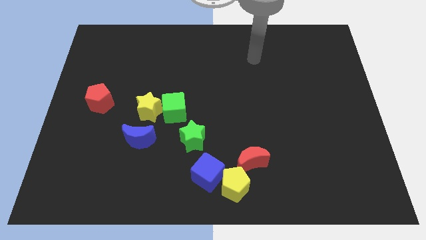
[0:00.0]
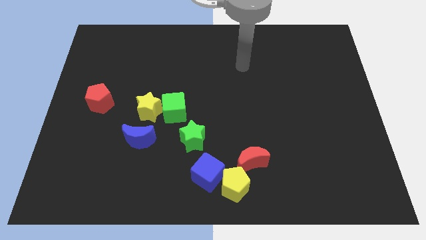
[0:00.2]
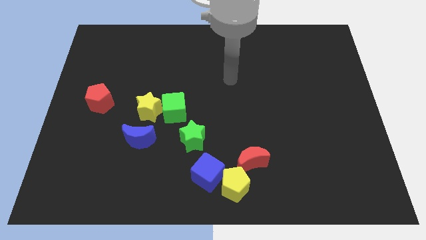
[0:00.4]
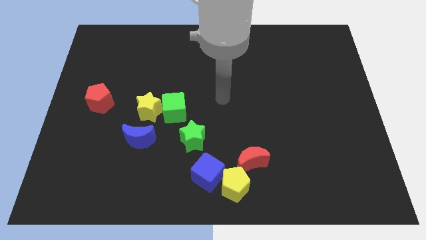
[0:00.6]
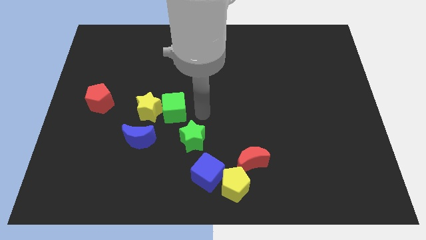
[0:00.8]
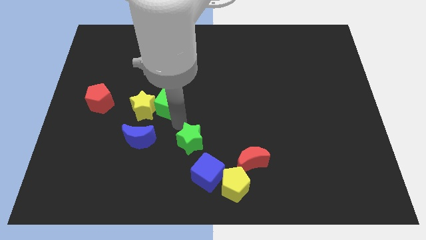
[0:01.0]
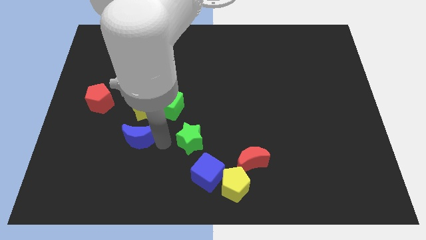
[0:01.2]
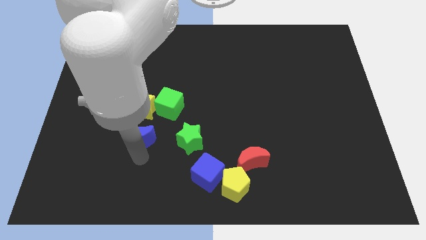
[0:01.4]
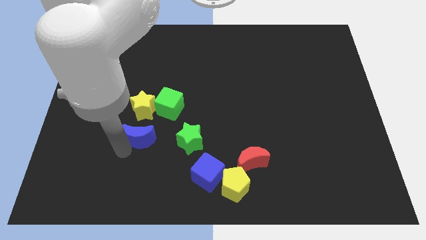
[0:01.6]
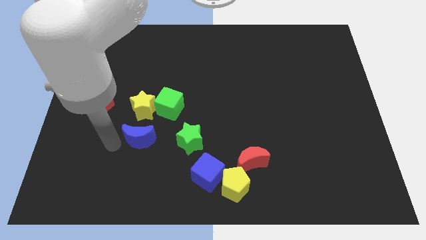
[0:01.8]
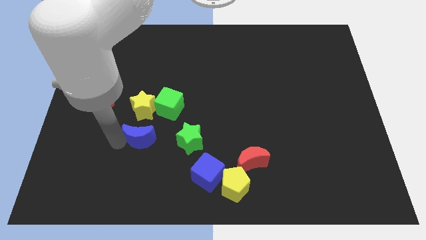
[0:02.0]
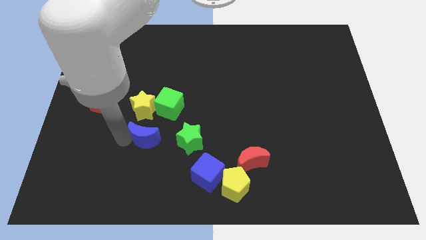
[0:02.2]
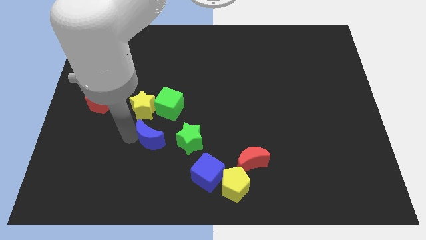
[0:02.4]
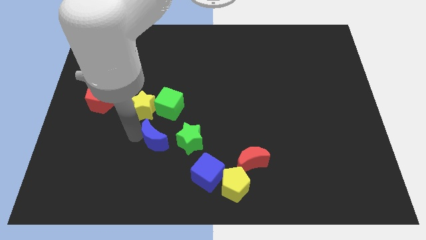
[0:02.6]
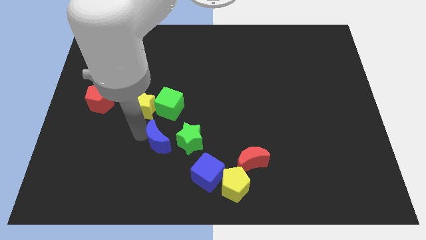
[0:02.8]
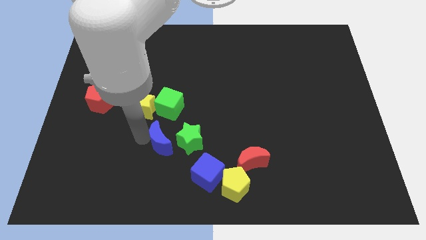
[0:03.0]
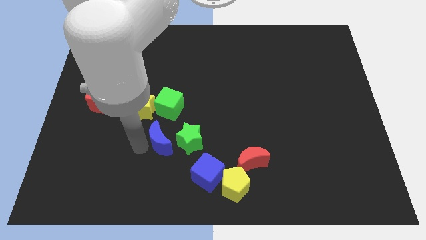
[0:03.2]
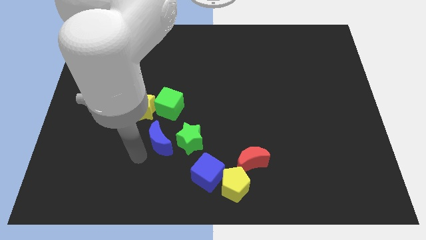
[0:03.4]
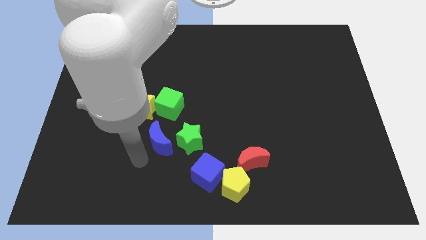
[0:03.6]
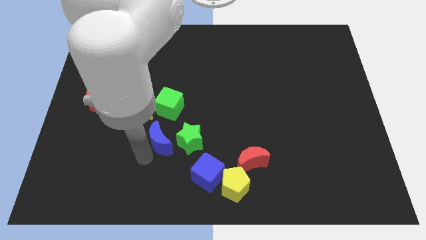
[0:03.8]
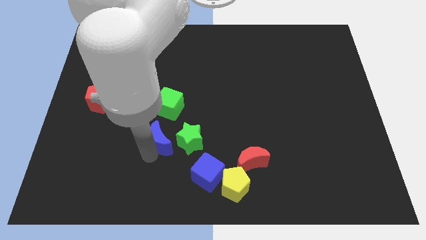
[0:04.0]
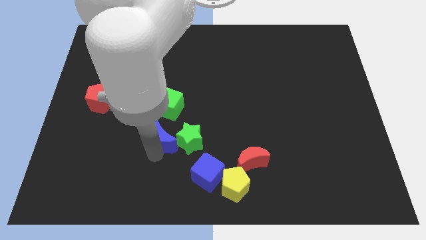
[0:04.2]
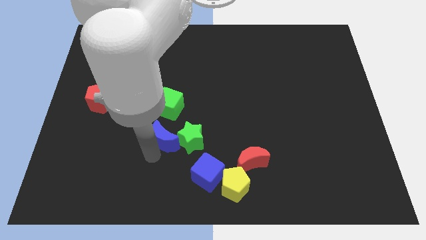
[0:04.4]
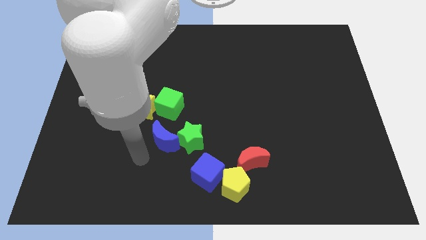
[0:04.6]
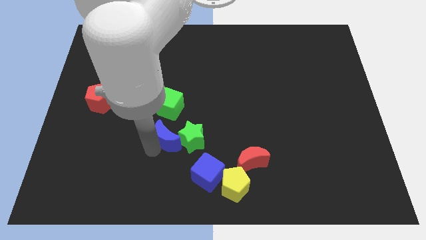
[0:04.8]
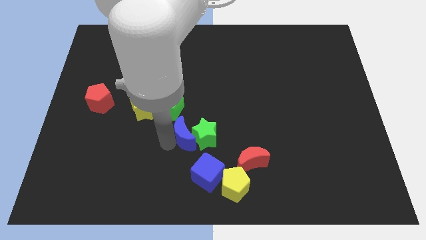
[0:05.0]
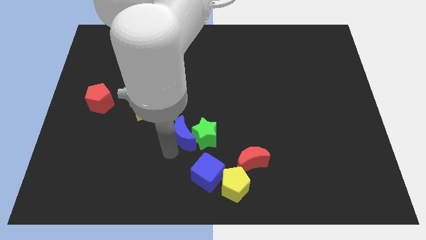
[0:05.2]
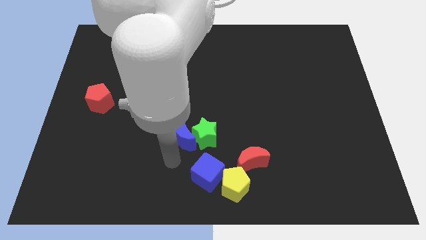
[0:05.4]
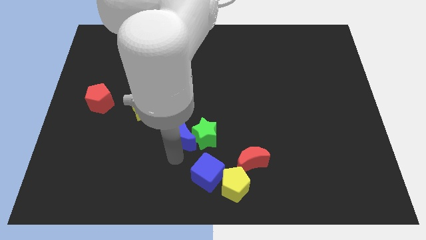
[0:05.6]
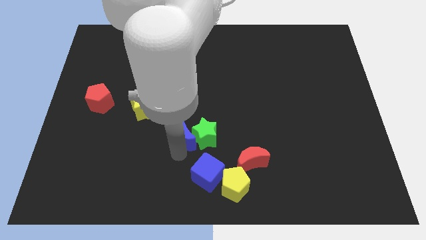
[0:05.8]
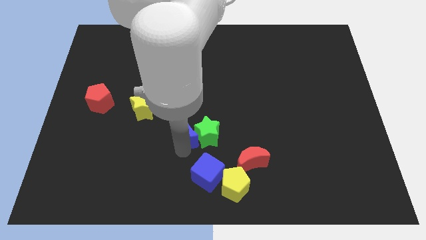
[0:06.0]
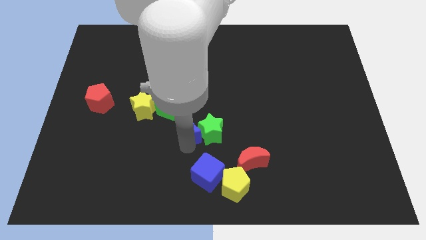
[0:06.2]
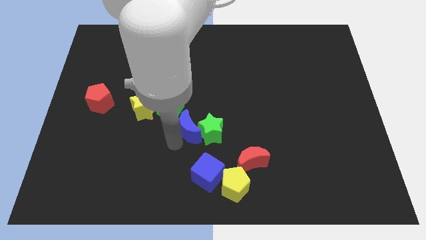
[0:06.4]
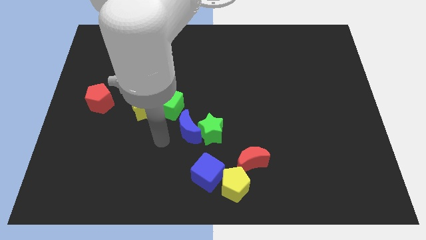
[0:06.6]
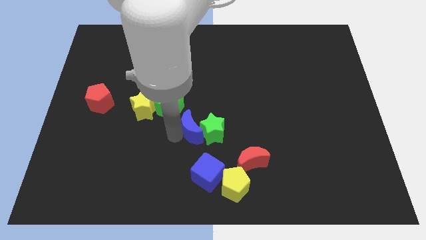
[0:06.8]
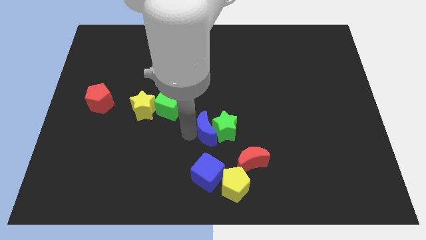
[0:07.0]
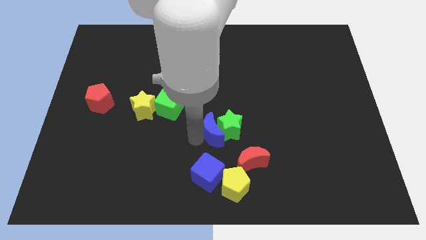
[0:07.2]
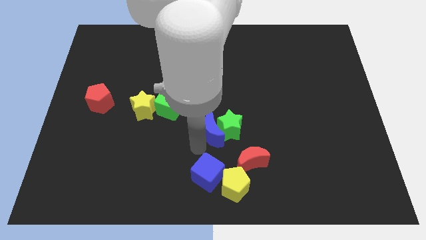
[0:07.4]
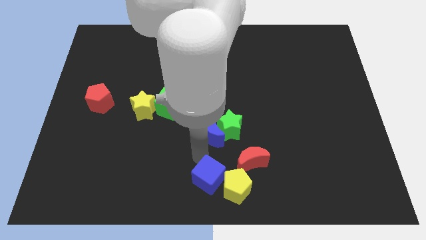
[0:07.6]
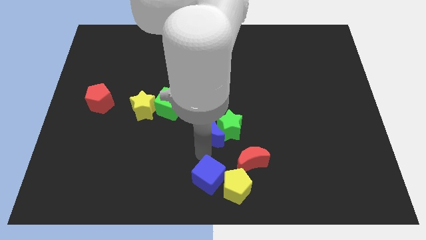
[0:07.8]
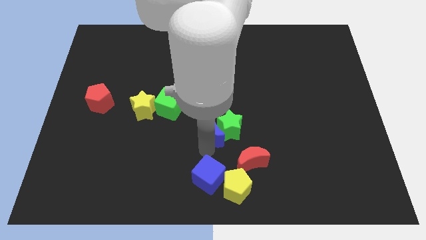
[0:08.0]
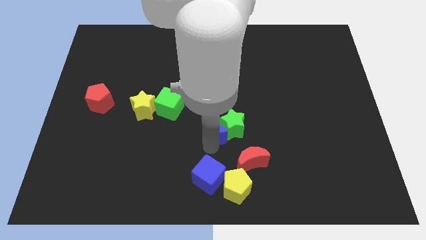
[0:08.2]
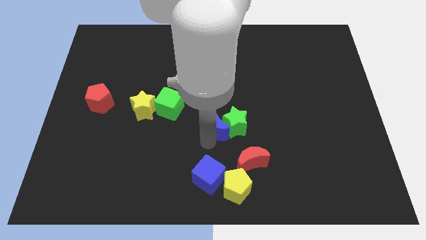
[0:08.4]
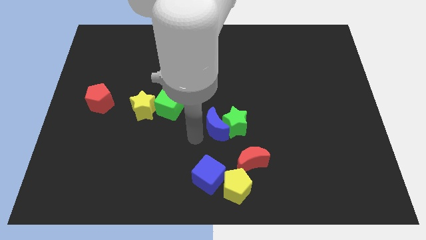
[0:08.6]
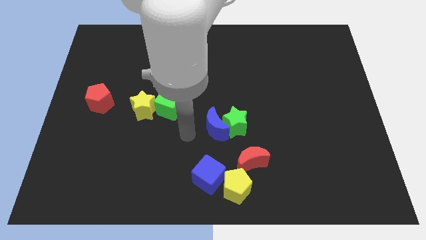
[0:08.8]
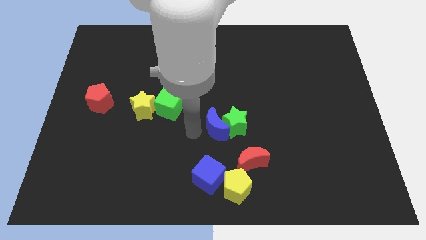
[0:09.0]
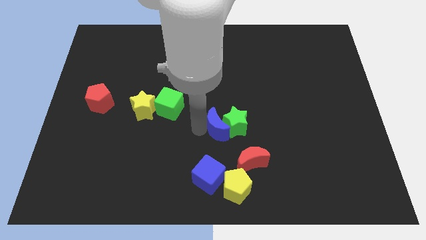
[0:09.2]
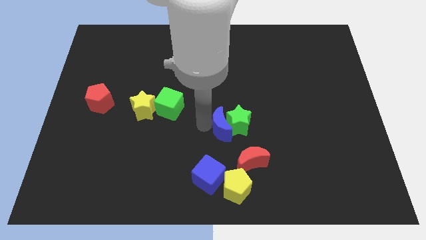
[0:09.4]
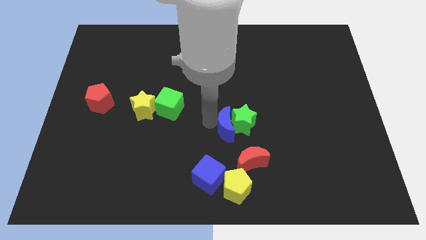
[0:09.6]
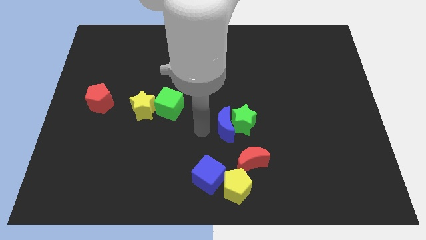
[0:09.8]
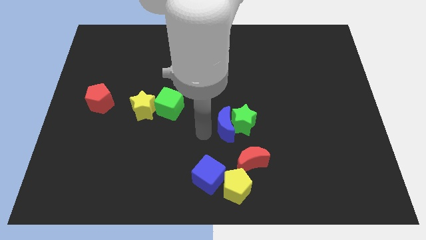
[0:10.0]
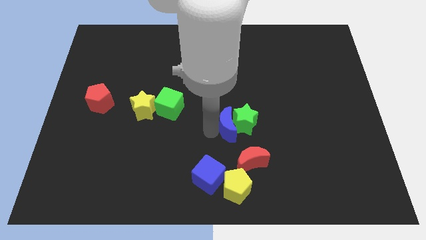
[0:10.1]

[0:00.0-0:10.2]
push the blue moon to the top side of the red moon

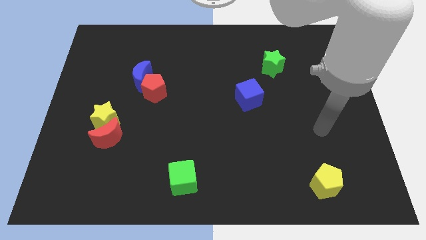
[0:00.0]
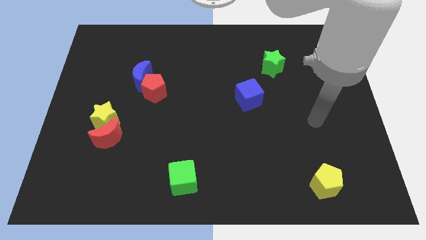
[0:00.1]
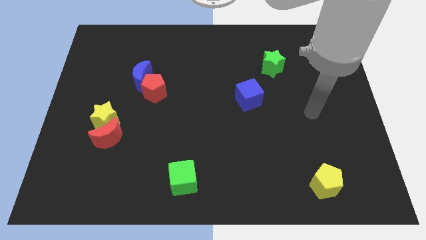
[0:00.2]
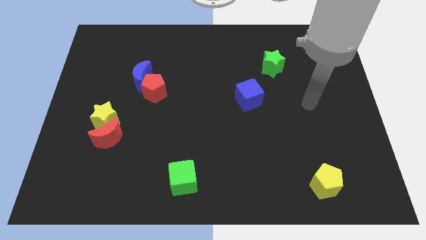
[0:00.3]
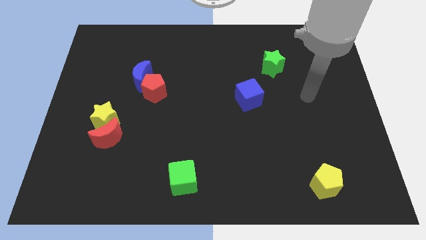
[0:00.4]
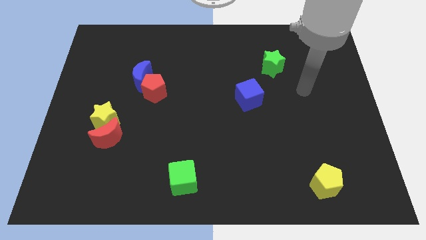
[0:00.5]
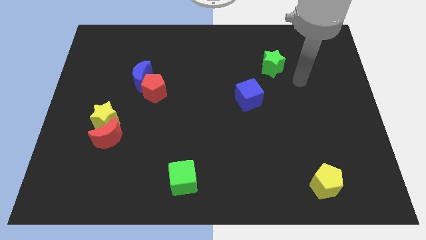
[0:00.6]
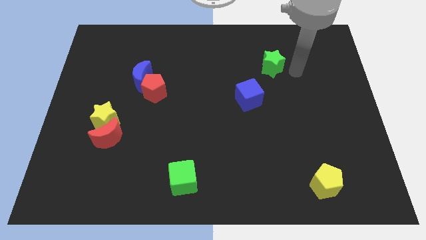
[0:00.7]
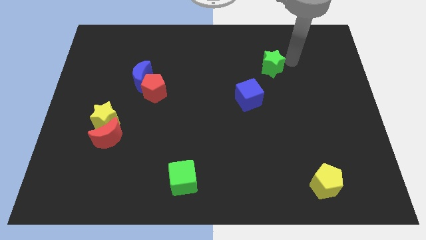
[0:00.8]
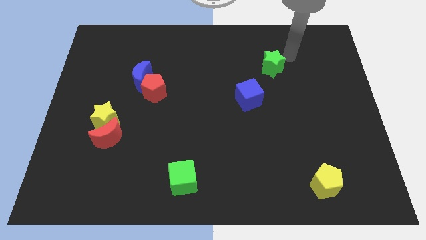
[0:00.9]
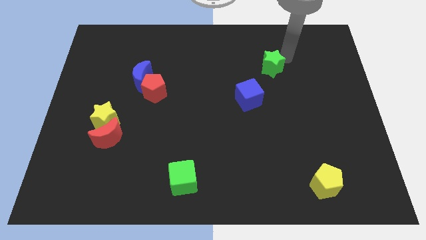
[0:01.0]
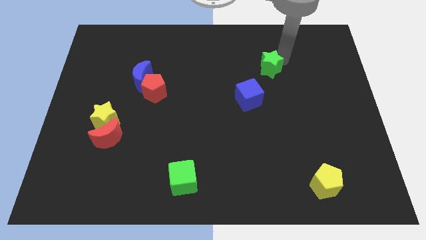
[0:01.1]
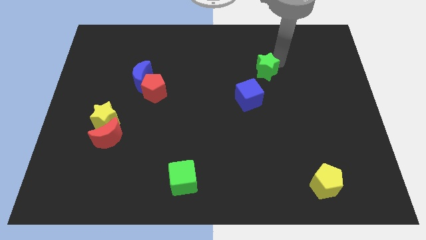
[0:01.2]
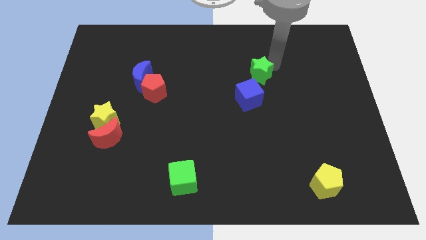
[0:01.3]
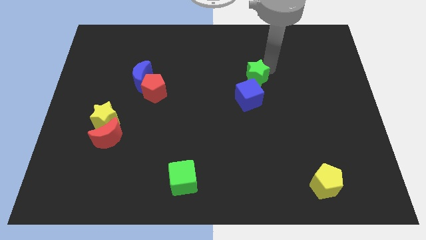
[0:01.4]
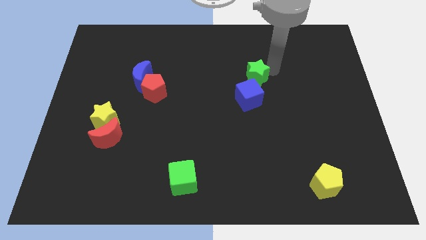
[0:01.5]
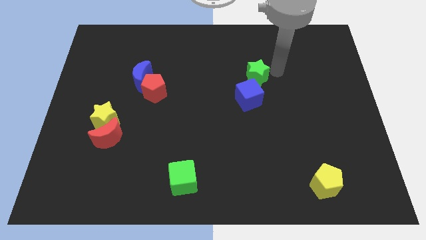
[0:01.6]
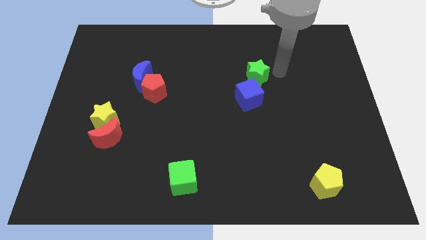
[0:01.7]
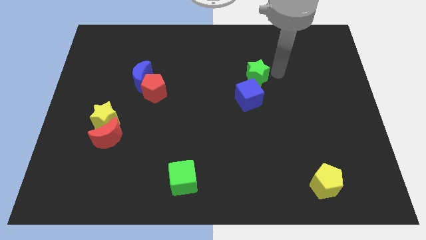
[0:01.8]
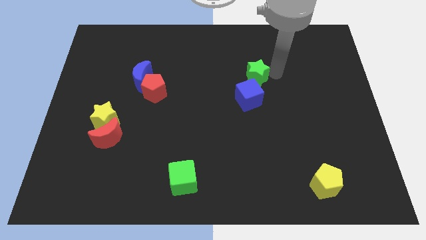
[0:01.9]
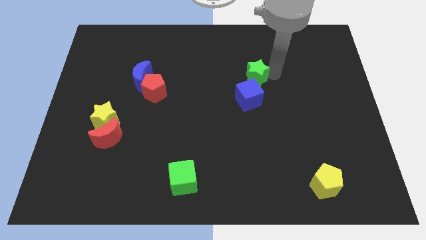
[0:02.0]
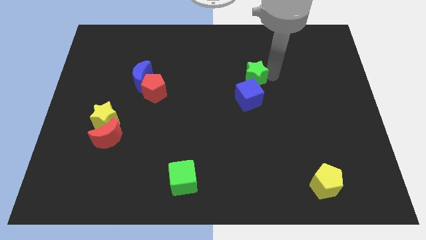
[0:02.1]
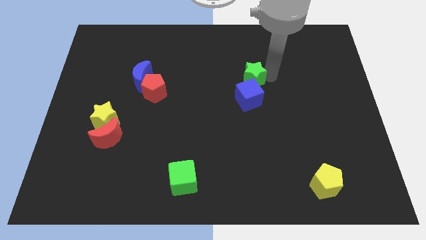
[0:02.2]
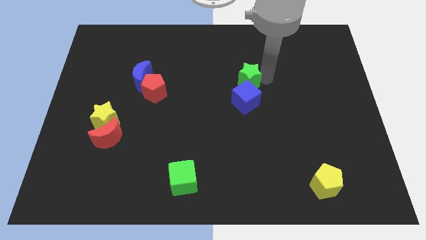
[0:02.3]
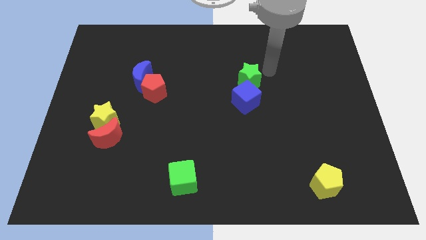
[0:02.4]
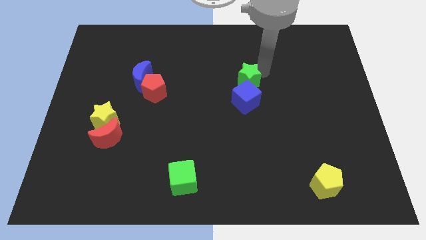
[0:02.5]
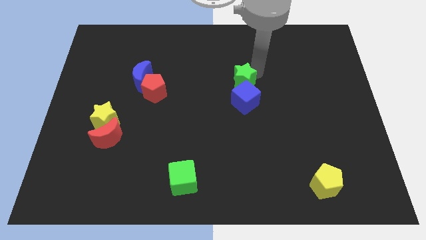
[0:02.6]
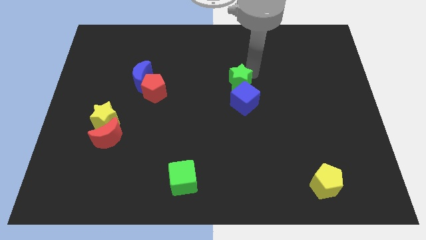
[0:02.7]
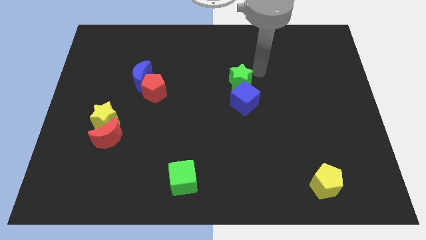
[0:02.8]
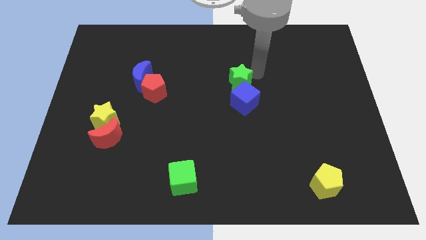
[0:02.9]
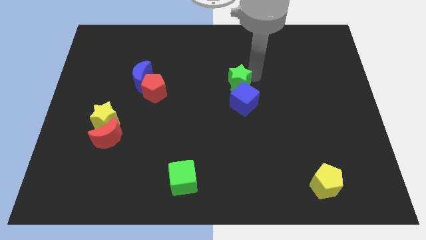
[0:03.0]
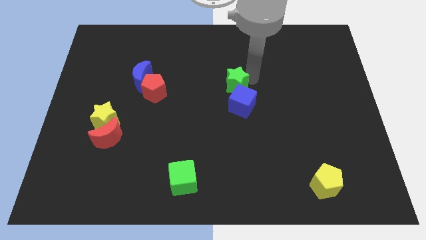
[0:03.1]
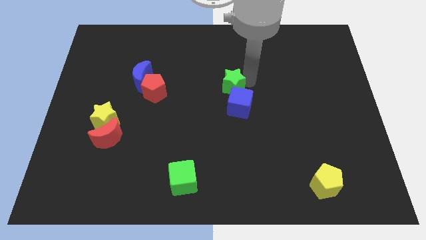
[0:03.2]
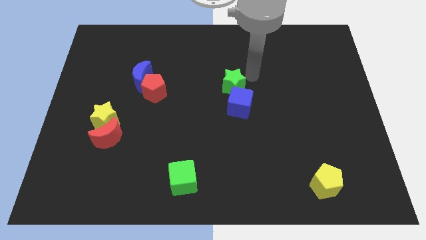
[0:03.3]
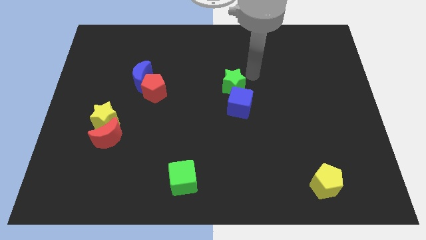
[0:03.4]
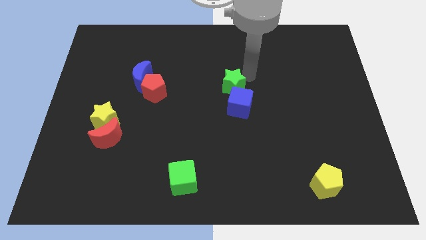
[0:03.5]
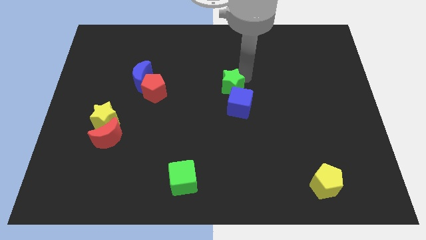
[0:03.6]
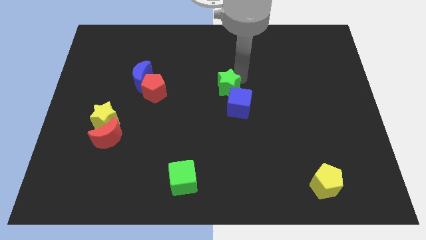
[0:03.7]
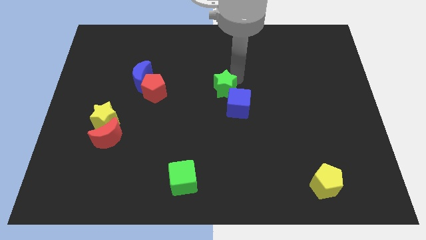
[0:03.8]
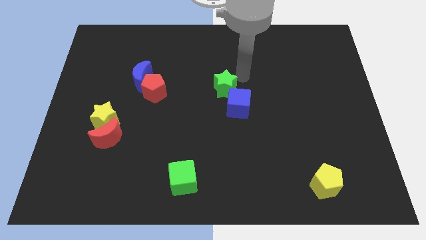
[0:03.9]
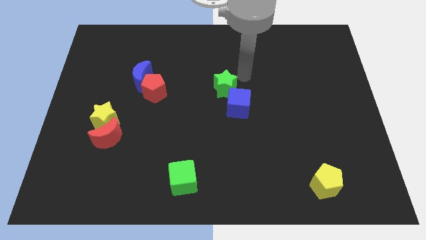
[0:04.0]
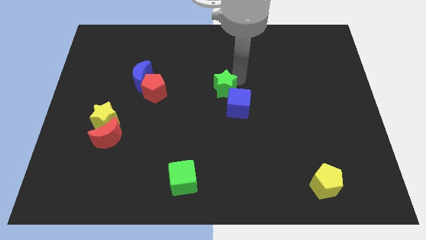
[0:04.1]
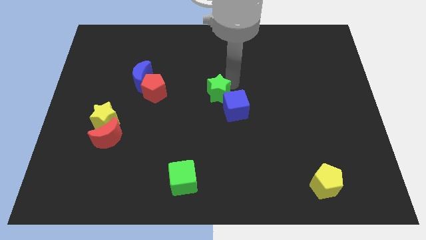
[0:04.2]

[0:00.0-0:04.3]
slide the green star left of the blue cube
